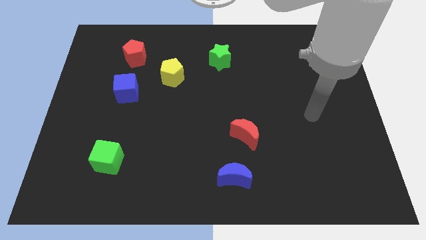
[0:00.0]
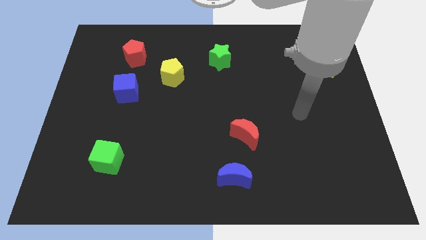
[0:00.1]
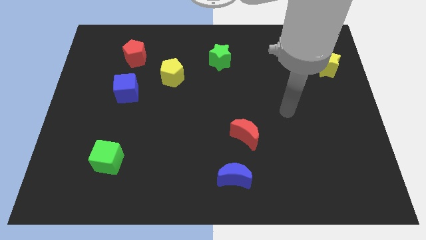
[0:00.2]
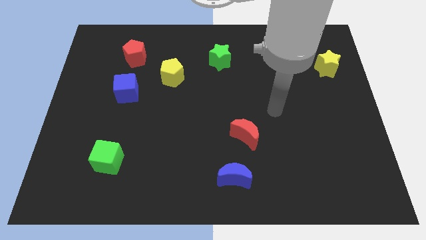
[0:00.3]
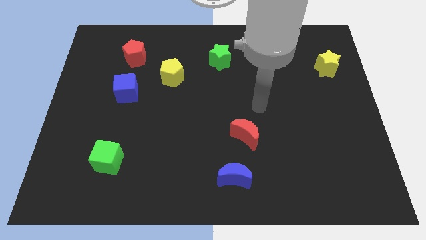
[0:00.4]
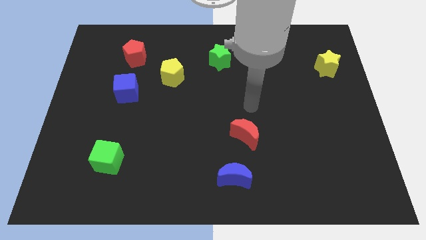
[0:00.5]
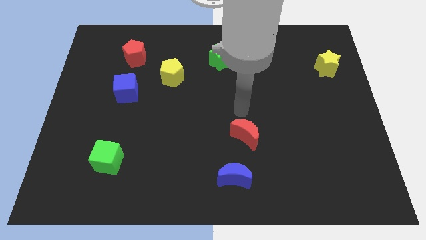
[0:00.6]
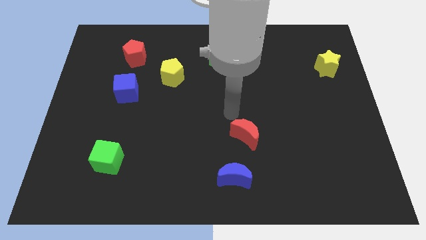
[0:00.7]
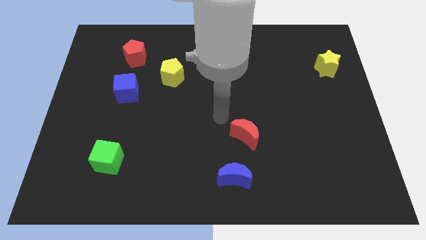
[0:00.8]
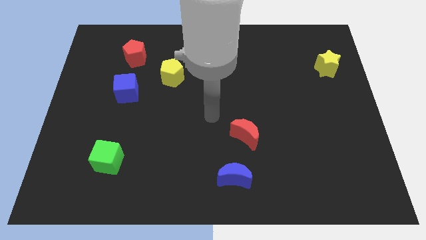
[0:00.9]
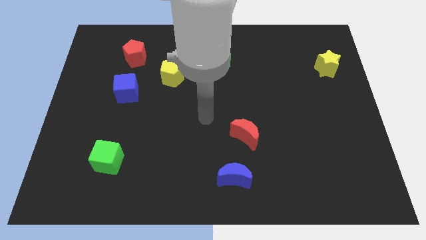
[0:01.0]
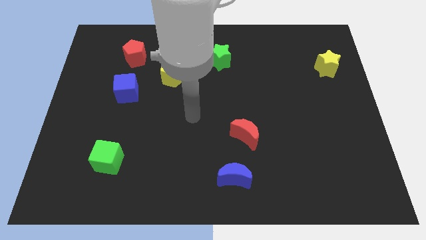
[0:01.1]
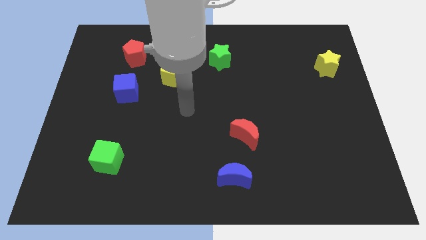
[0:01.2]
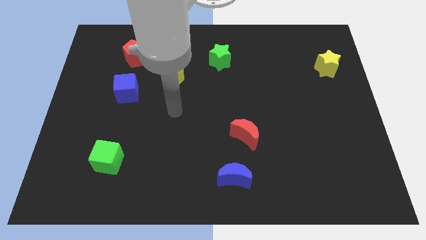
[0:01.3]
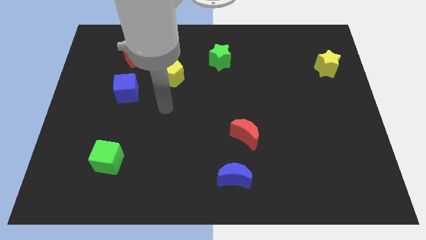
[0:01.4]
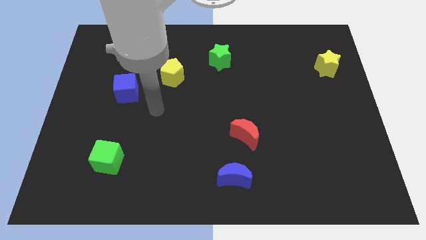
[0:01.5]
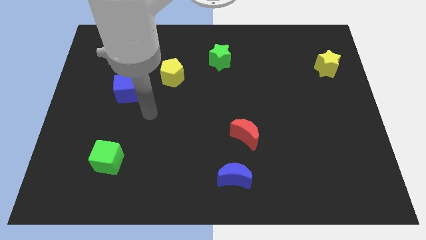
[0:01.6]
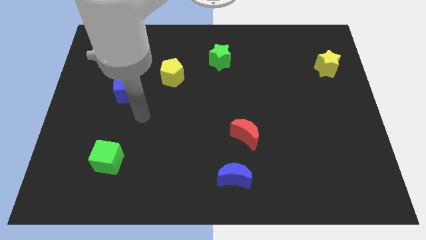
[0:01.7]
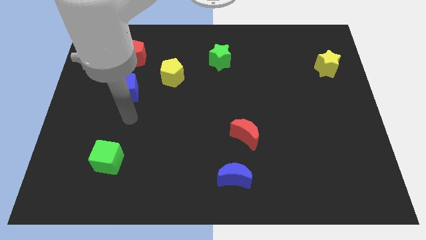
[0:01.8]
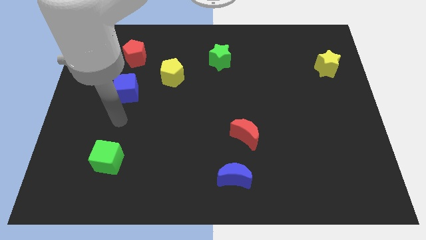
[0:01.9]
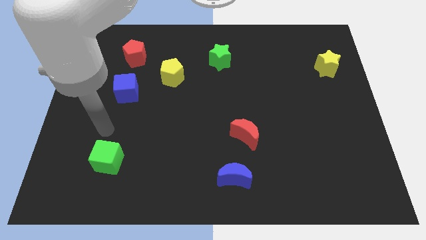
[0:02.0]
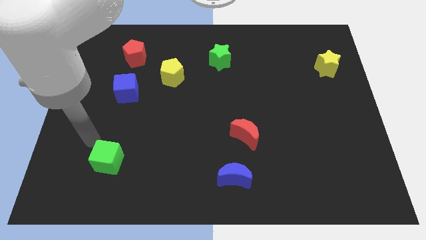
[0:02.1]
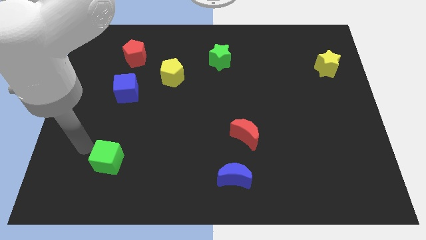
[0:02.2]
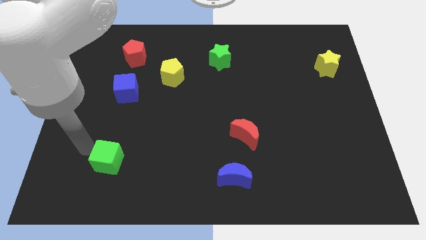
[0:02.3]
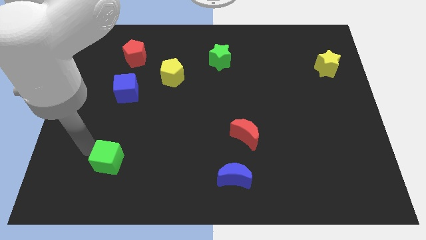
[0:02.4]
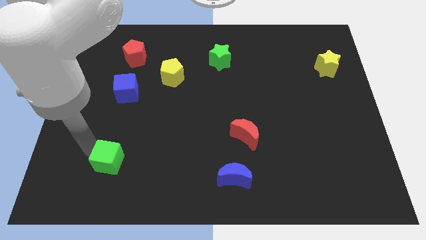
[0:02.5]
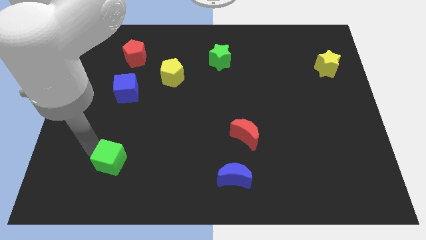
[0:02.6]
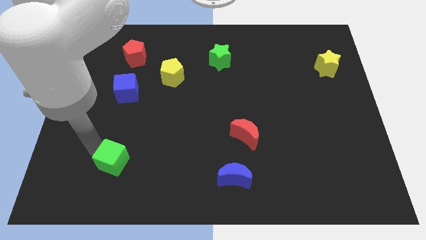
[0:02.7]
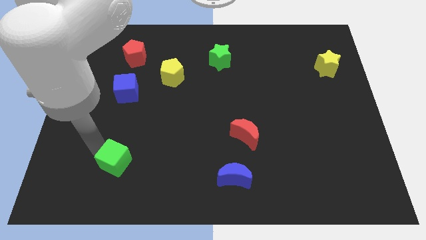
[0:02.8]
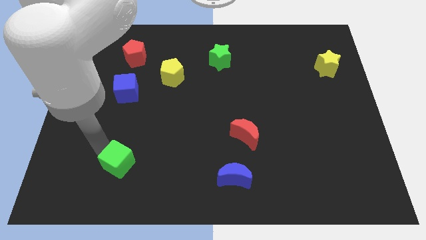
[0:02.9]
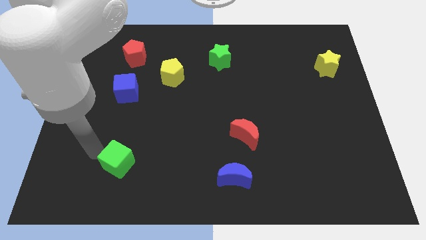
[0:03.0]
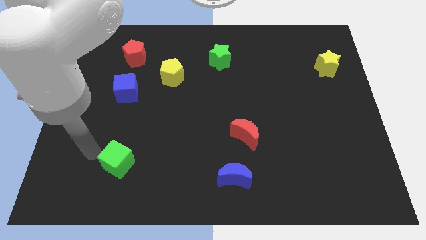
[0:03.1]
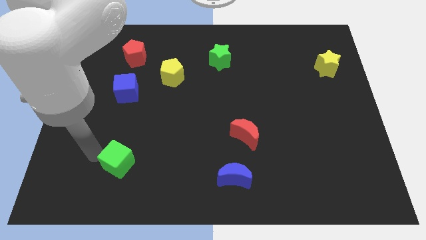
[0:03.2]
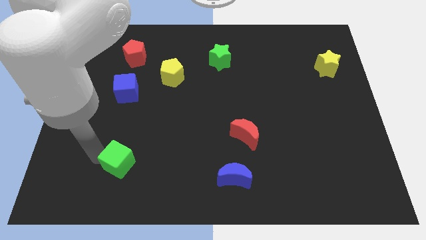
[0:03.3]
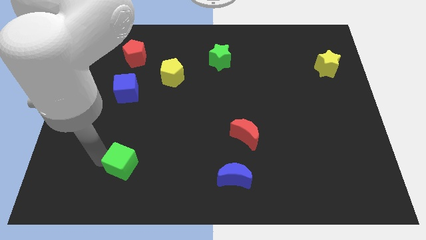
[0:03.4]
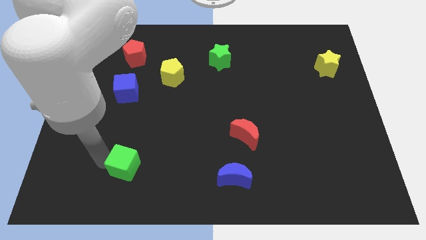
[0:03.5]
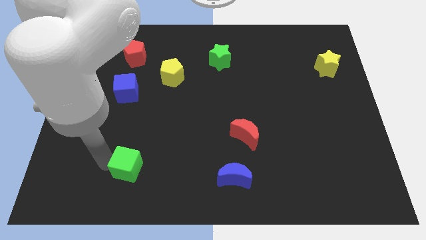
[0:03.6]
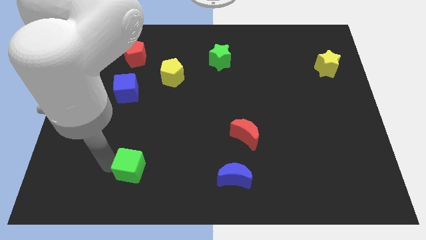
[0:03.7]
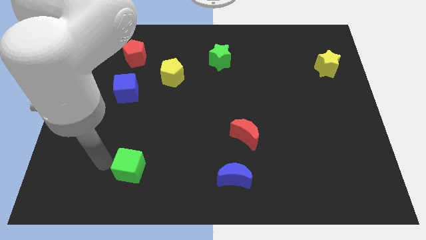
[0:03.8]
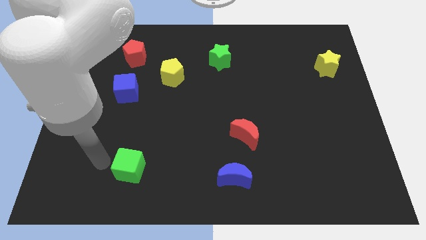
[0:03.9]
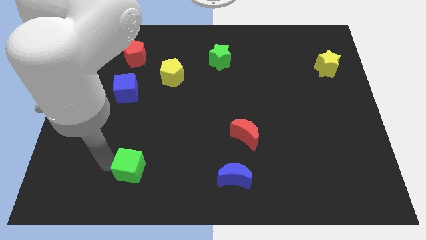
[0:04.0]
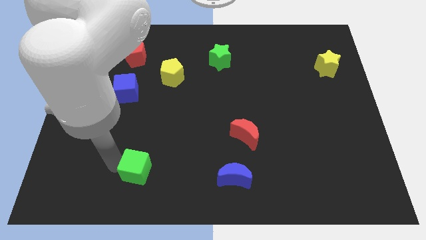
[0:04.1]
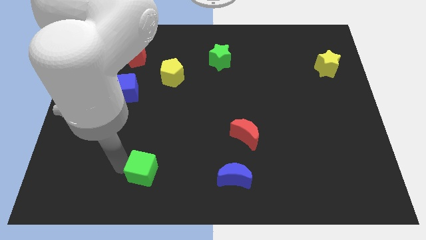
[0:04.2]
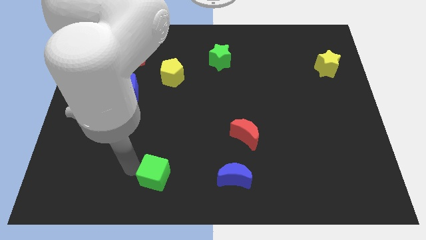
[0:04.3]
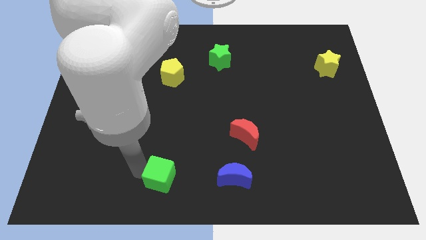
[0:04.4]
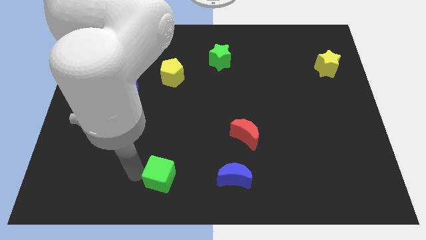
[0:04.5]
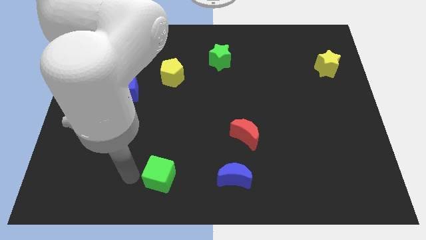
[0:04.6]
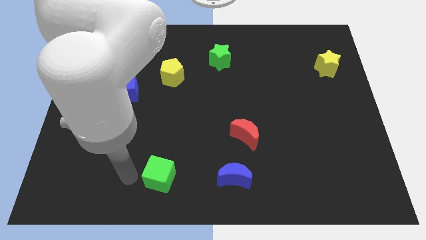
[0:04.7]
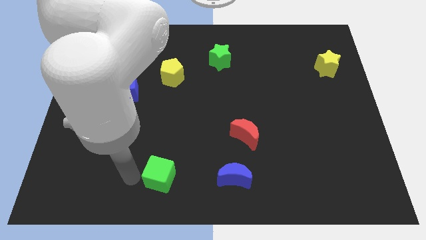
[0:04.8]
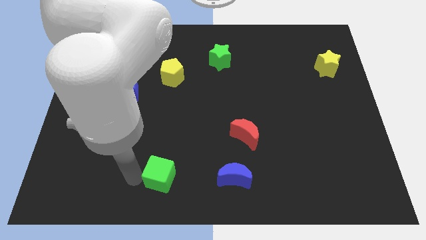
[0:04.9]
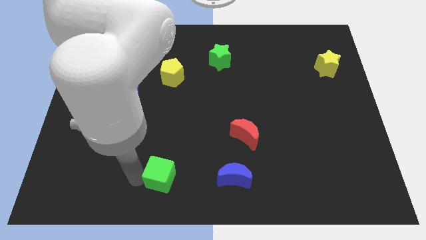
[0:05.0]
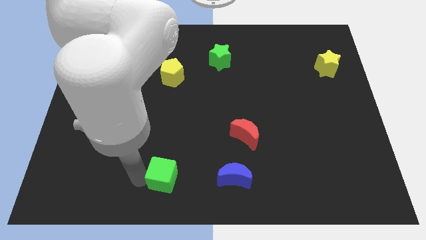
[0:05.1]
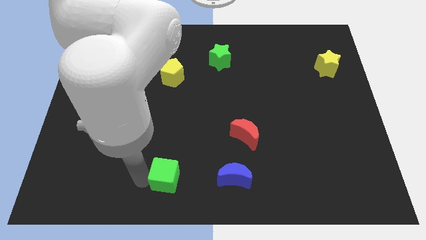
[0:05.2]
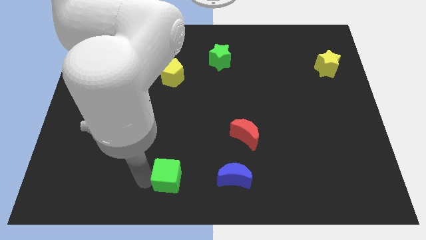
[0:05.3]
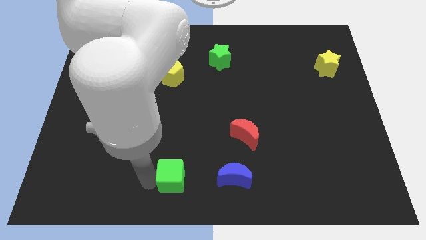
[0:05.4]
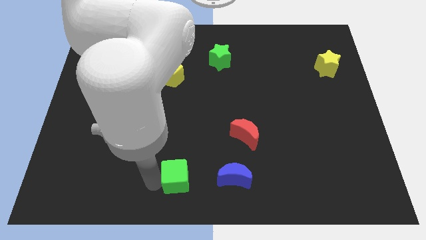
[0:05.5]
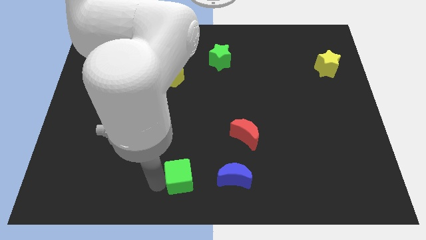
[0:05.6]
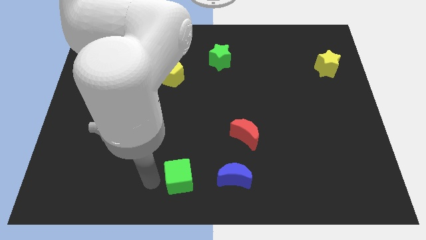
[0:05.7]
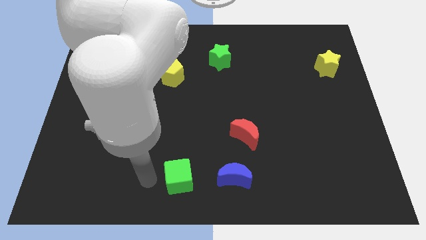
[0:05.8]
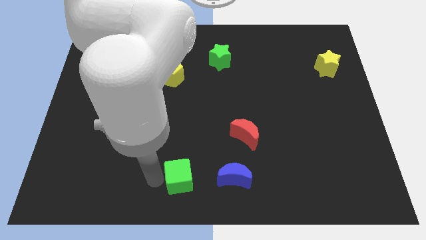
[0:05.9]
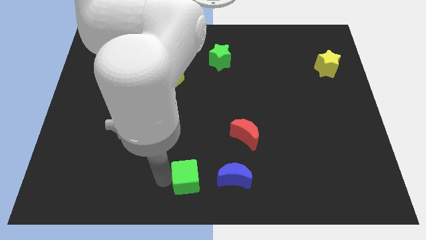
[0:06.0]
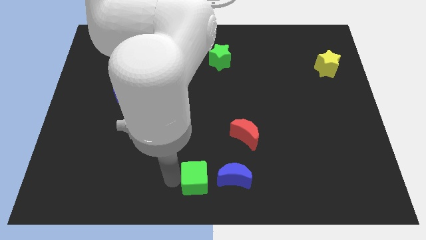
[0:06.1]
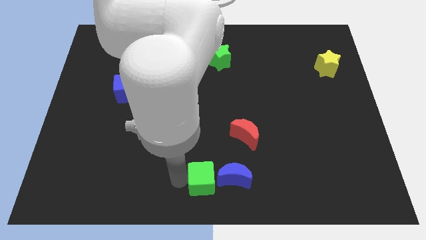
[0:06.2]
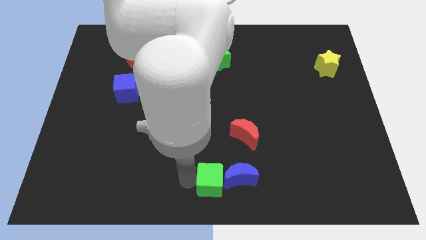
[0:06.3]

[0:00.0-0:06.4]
push the green cube towards the blue moon
